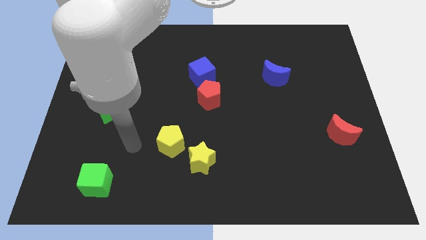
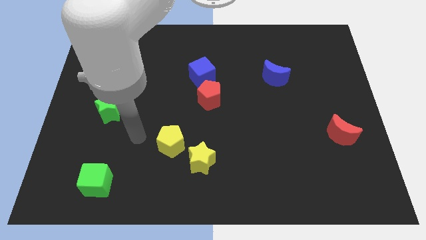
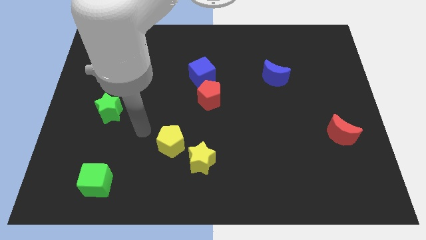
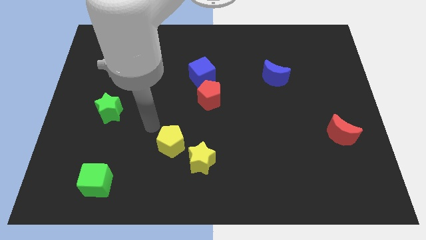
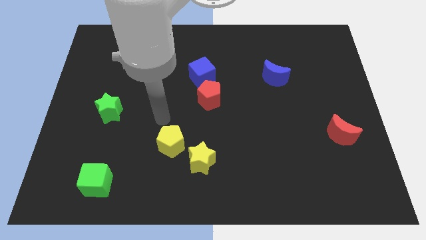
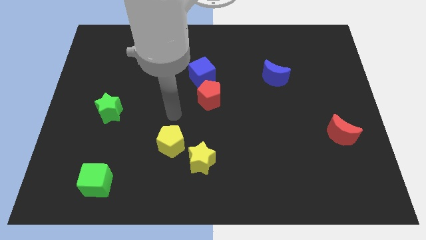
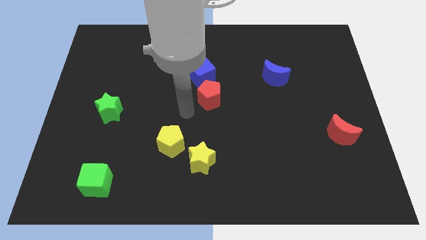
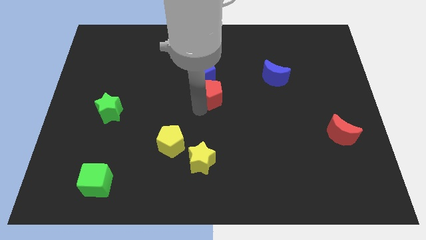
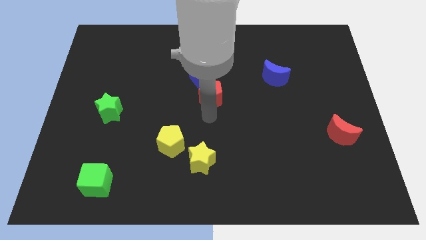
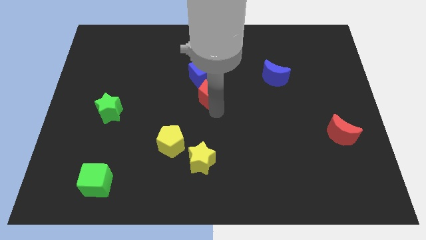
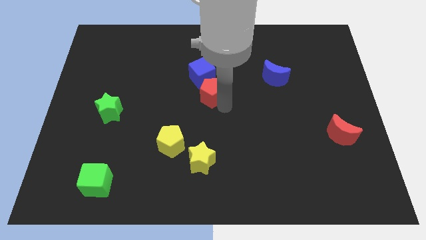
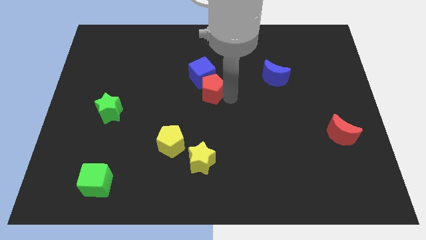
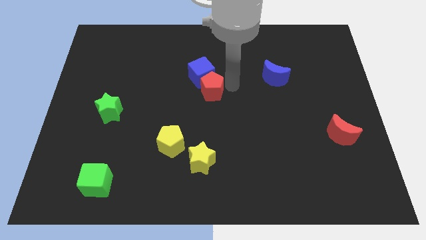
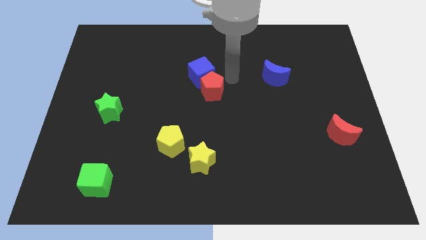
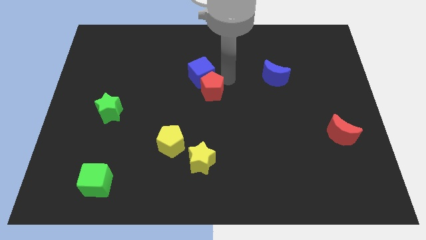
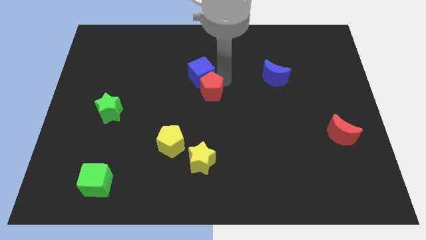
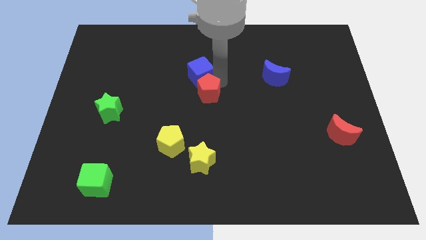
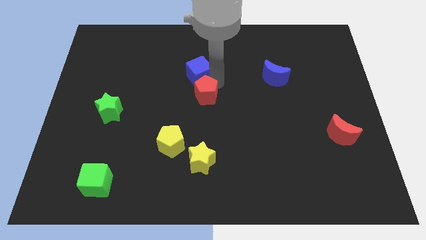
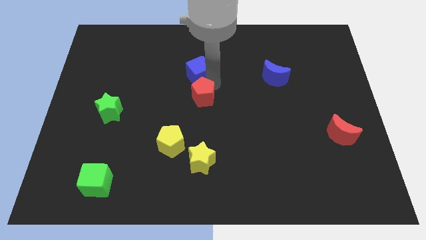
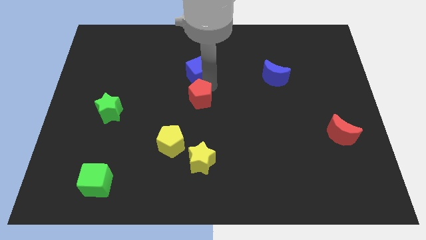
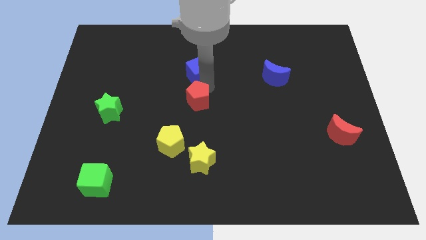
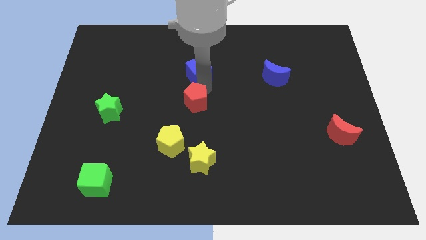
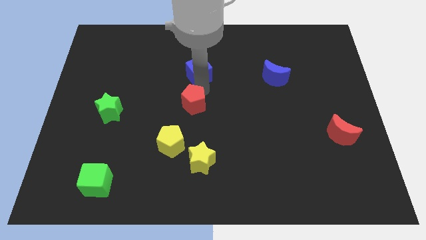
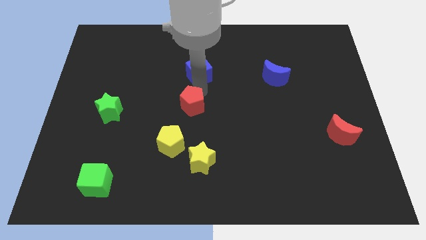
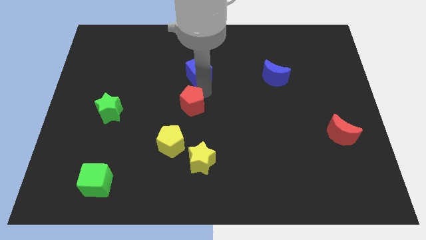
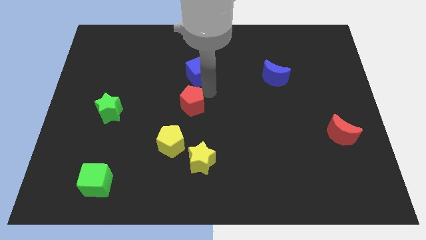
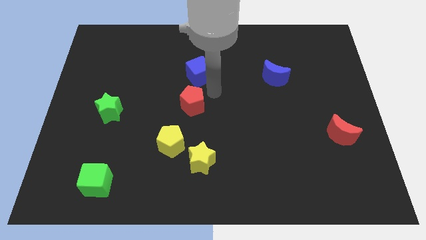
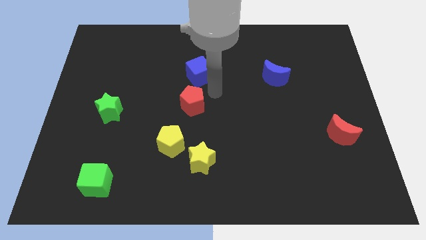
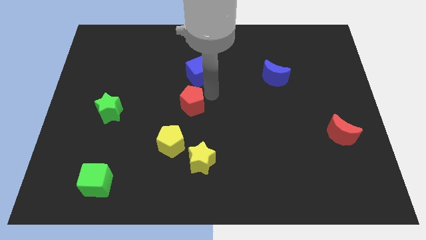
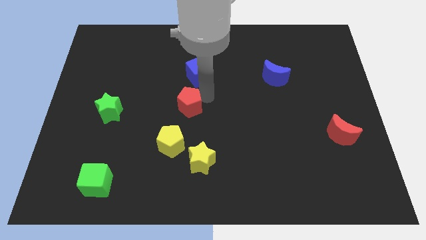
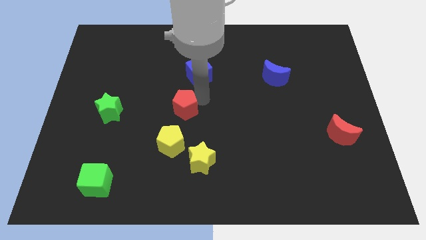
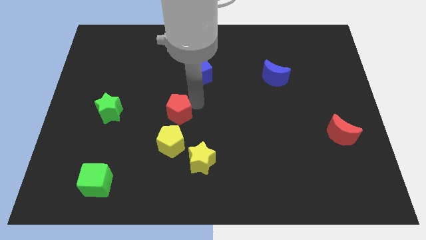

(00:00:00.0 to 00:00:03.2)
slightly move the red pentagon diagonally down and left

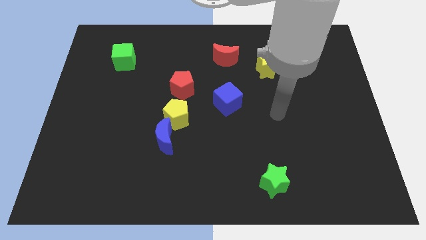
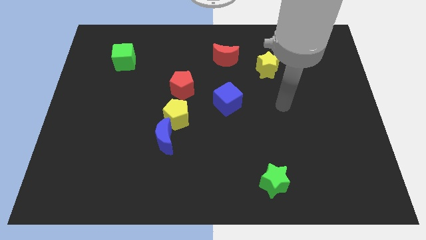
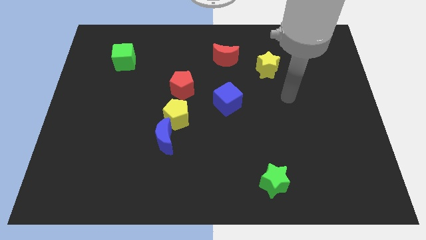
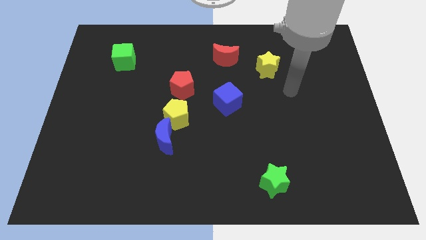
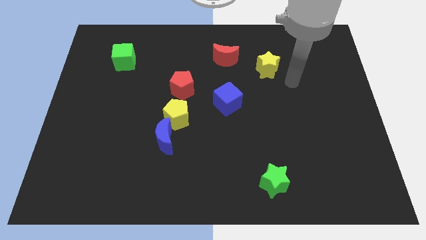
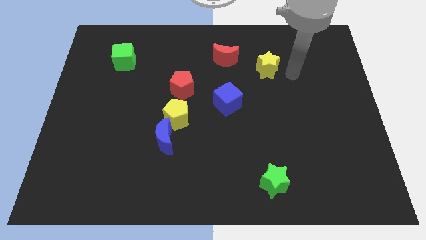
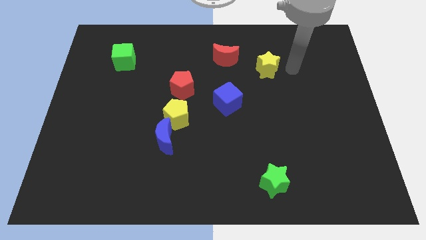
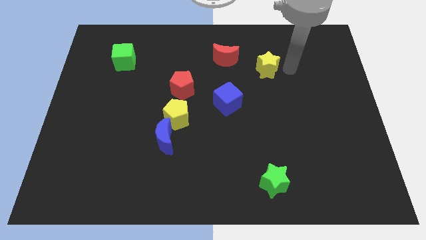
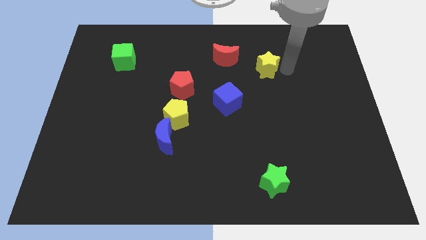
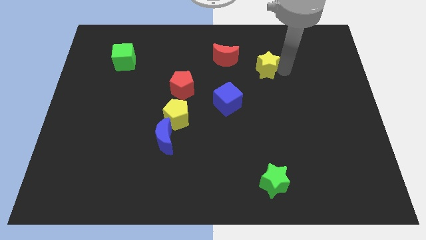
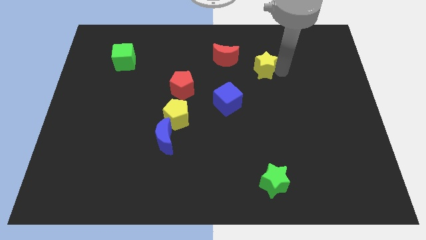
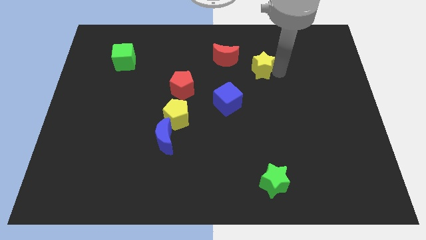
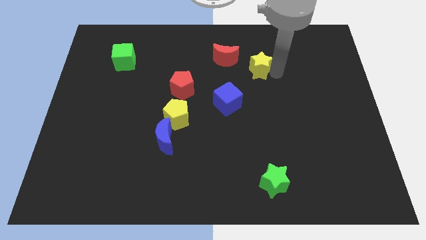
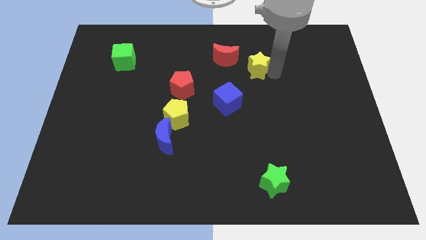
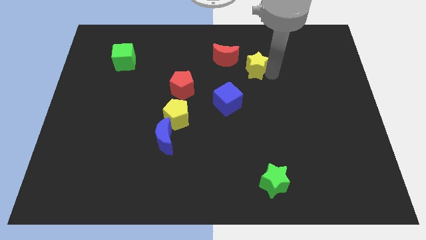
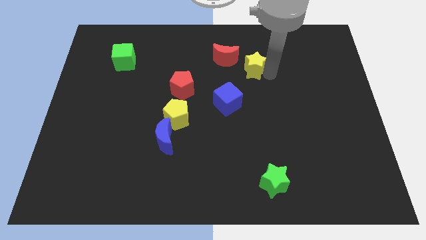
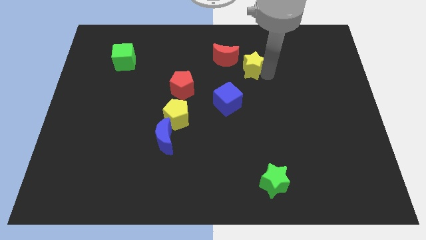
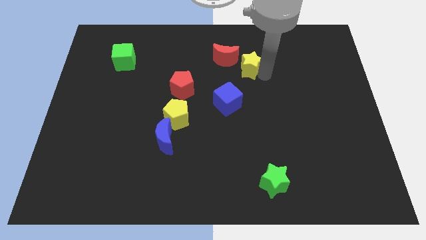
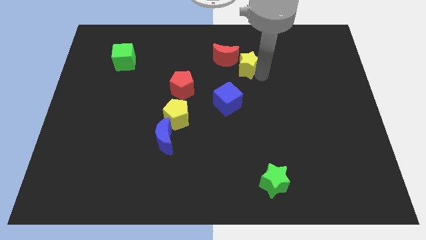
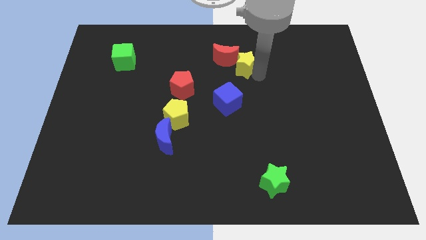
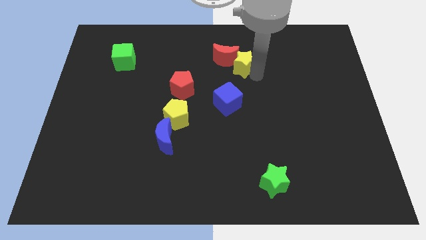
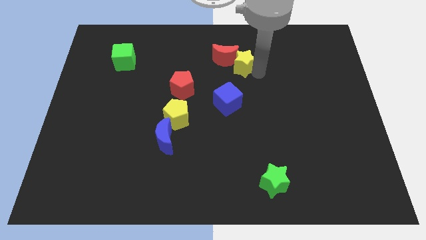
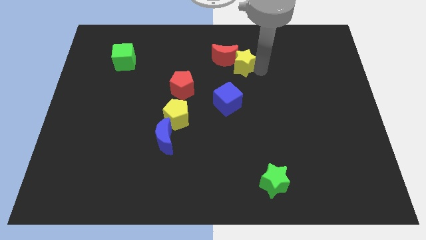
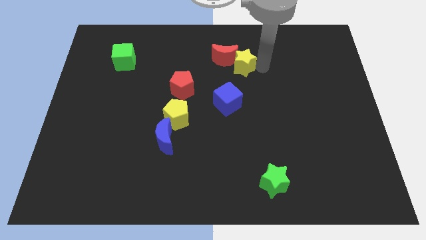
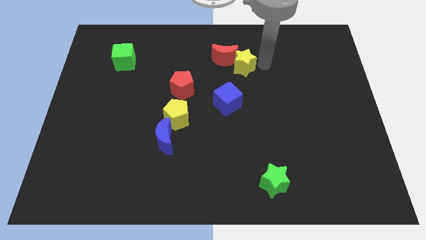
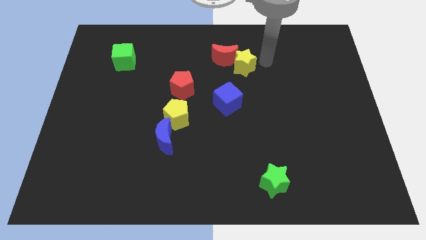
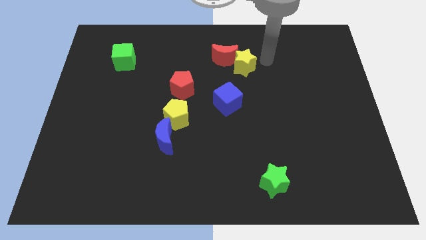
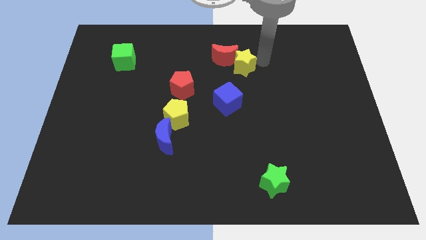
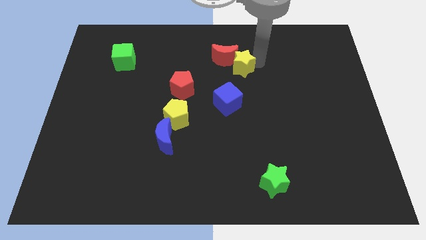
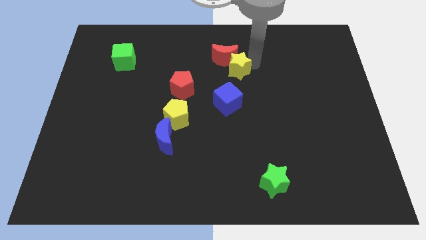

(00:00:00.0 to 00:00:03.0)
move the yellow star left a bit

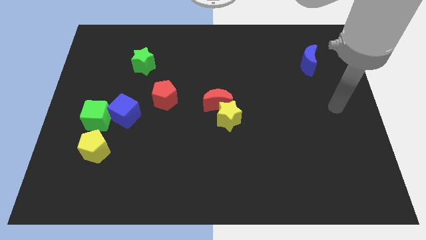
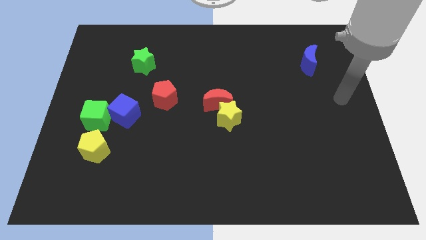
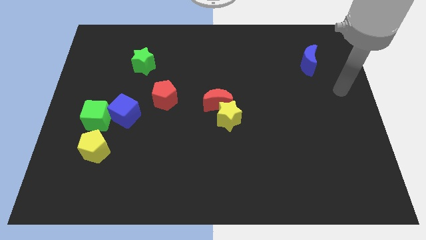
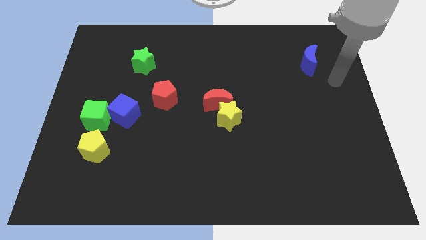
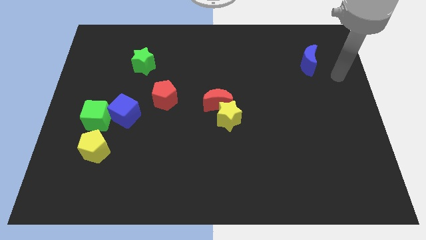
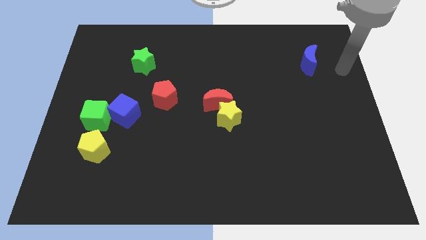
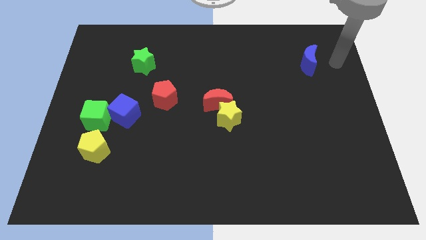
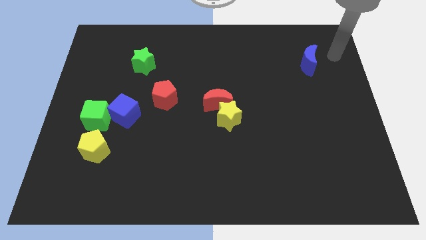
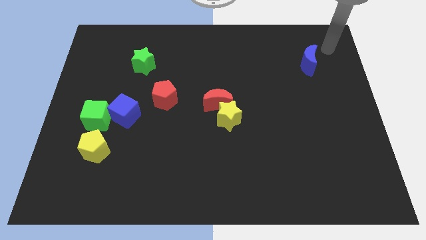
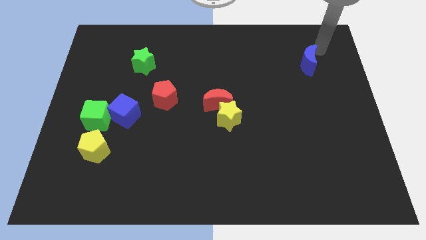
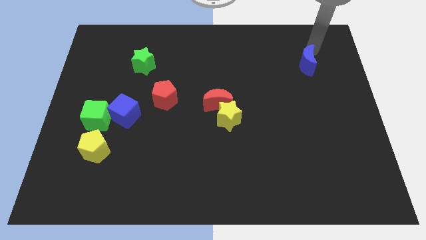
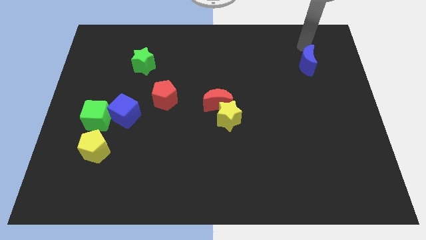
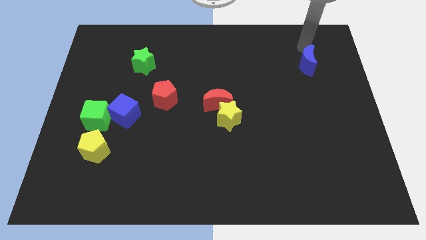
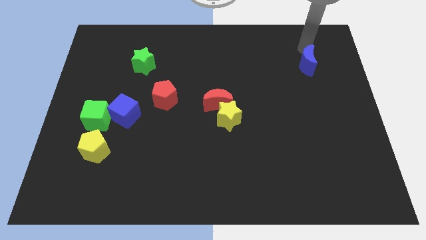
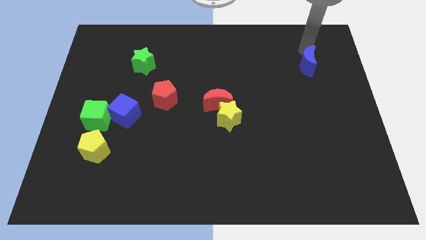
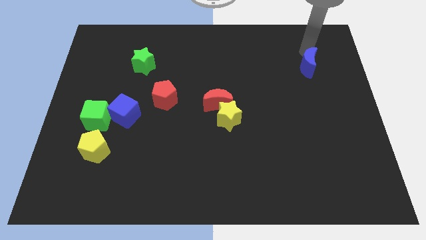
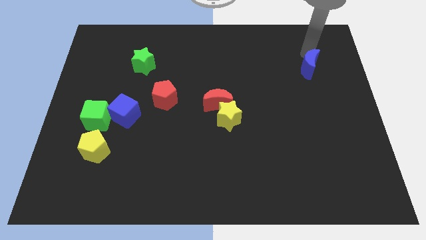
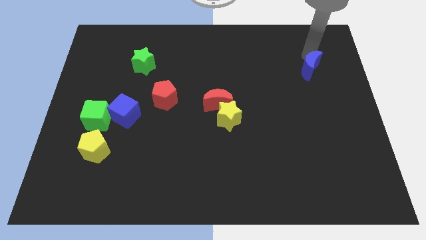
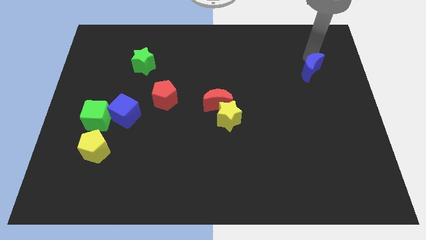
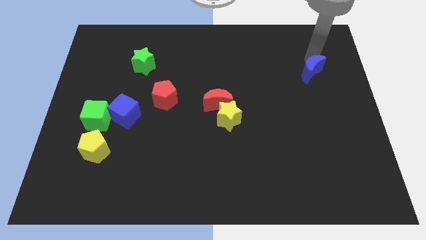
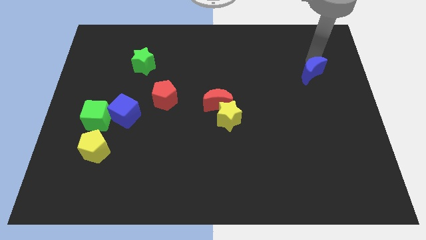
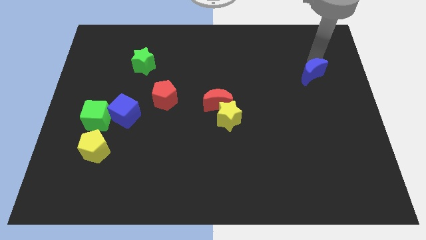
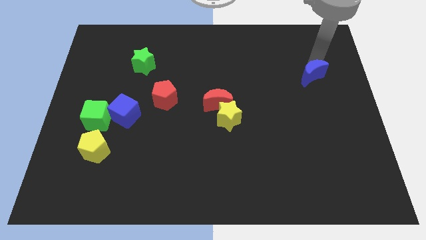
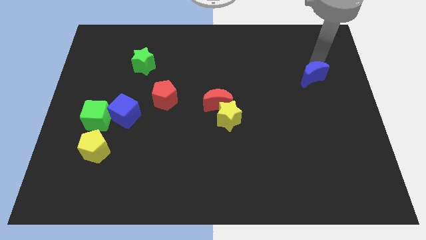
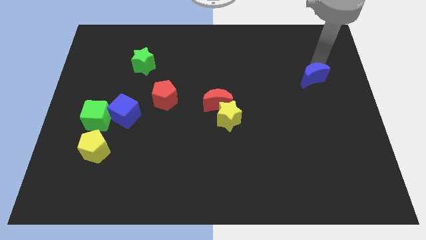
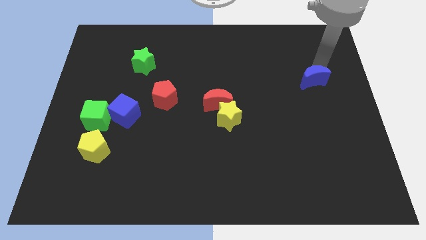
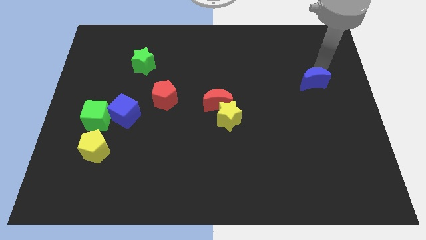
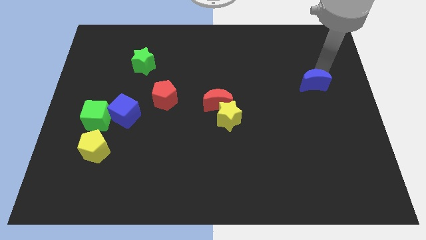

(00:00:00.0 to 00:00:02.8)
slightly push the blue moon down
